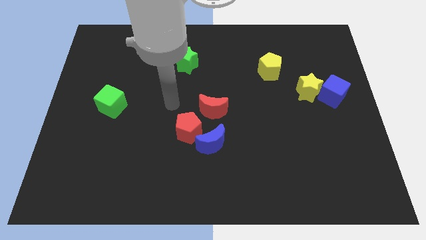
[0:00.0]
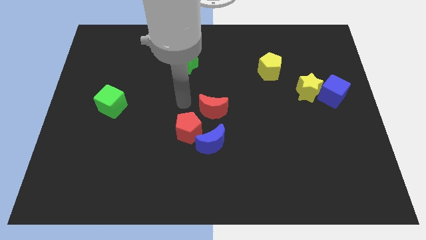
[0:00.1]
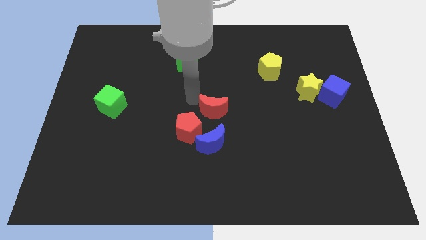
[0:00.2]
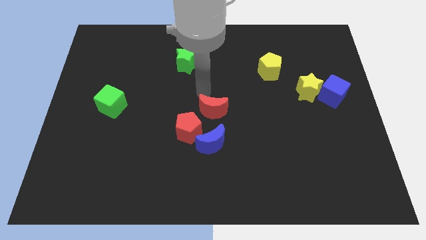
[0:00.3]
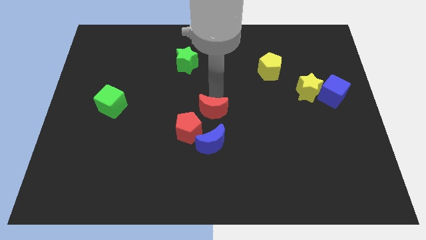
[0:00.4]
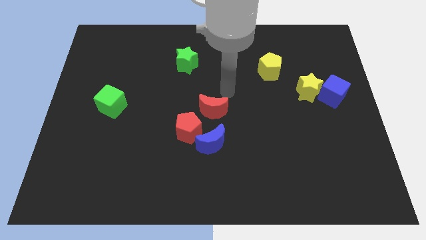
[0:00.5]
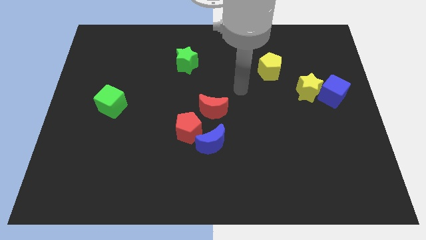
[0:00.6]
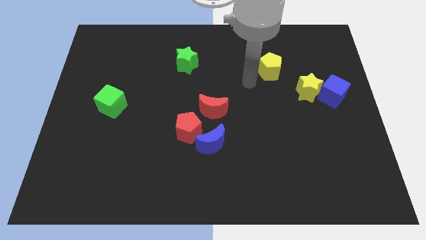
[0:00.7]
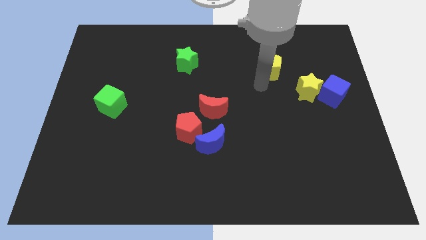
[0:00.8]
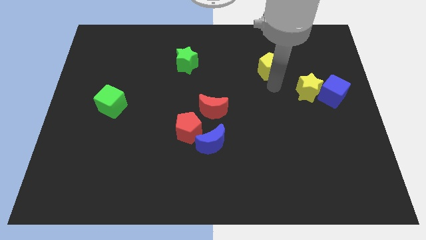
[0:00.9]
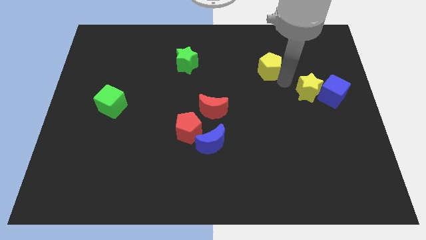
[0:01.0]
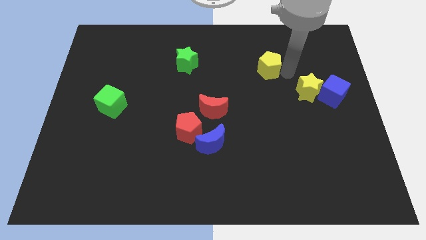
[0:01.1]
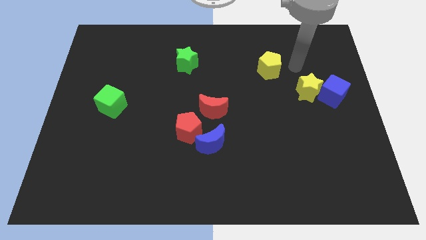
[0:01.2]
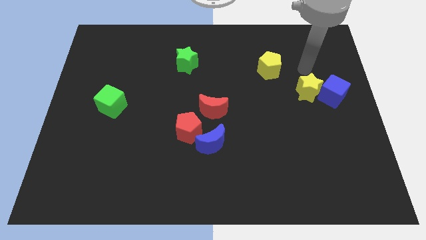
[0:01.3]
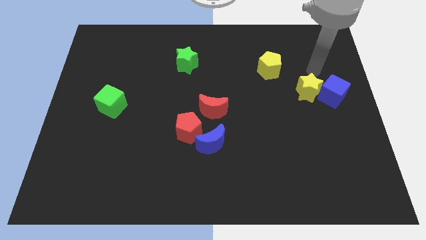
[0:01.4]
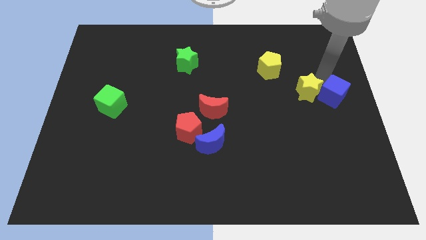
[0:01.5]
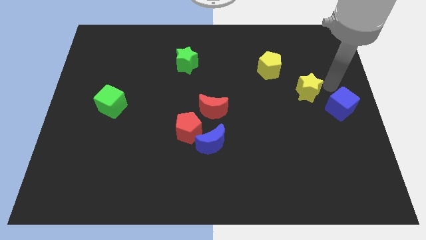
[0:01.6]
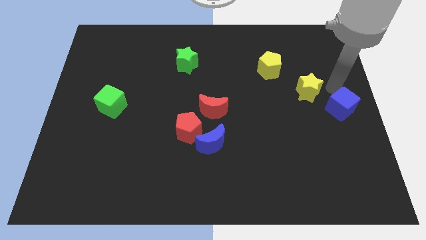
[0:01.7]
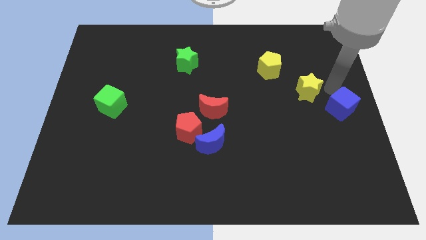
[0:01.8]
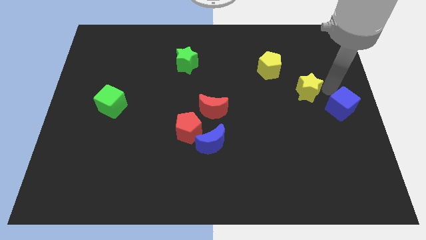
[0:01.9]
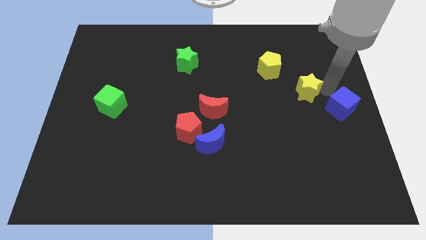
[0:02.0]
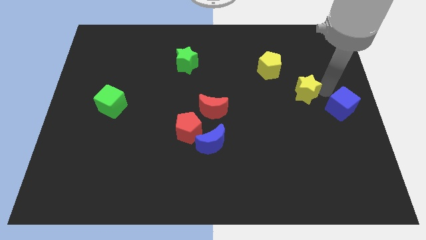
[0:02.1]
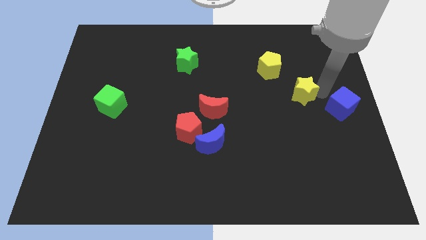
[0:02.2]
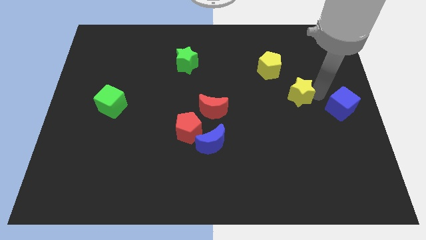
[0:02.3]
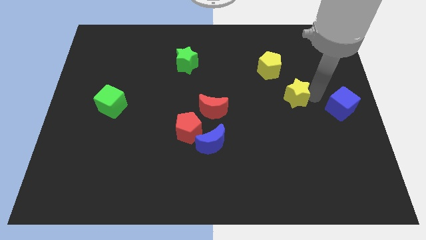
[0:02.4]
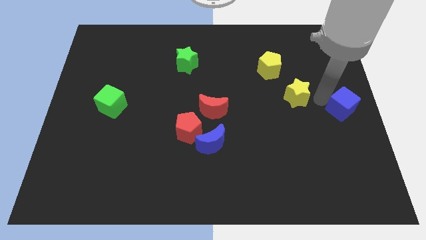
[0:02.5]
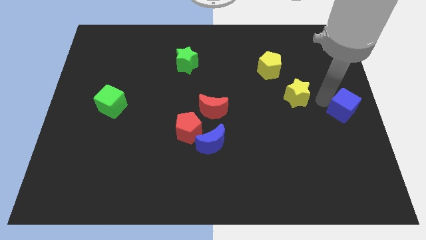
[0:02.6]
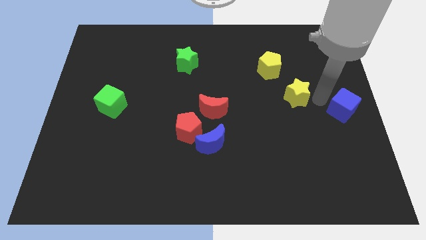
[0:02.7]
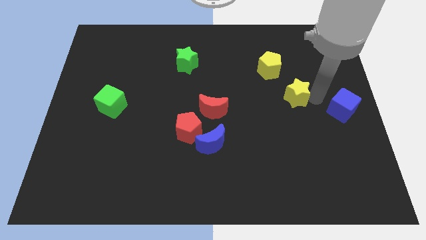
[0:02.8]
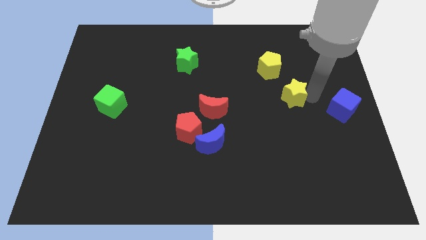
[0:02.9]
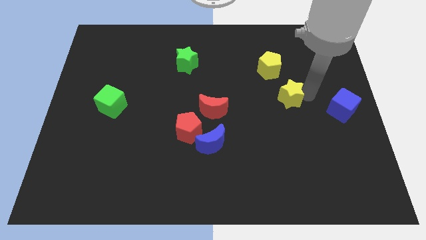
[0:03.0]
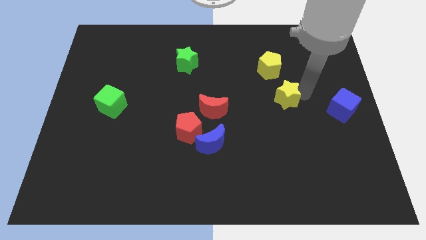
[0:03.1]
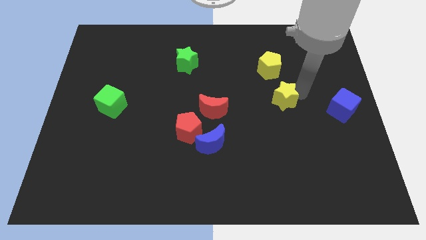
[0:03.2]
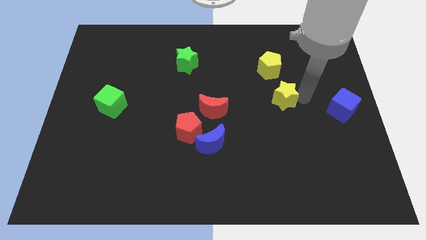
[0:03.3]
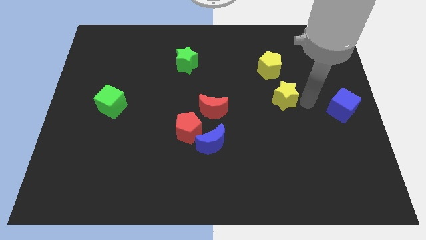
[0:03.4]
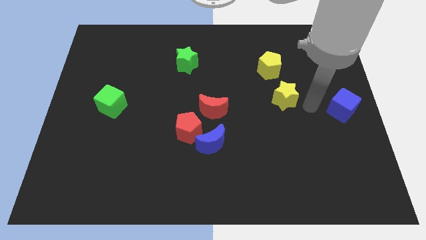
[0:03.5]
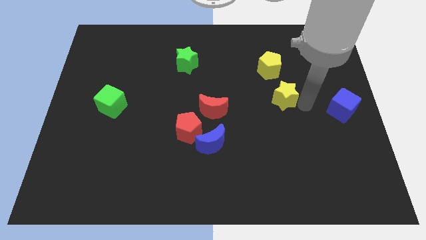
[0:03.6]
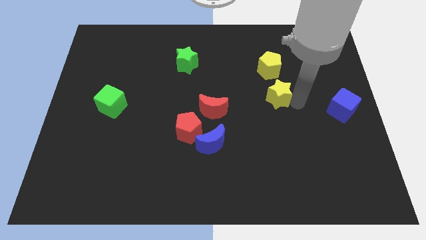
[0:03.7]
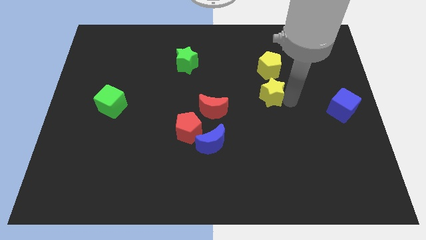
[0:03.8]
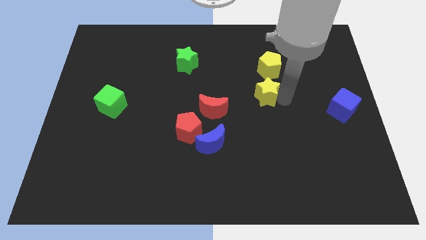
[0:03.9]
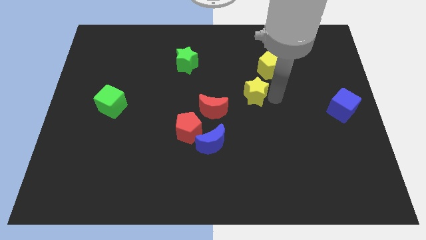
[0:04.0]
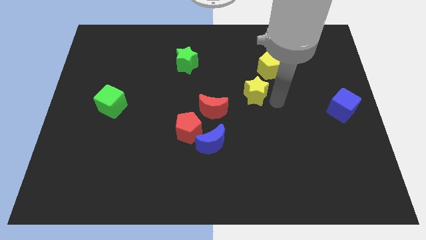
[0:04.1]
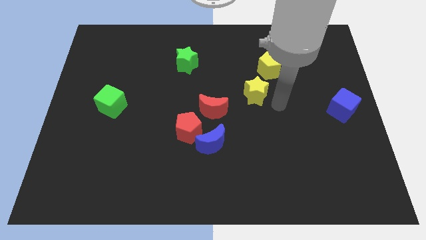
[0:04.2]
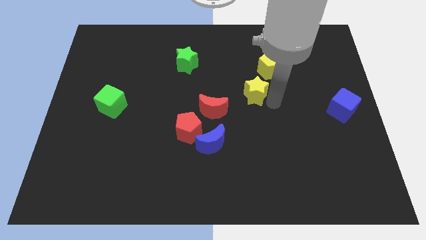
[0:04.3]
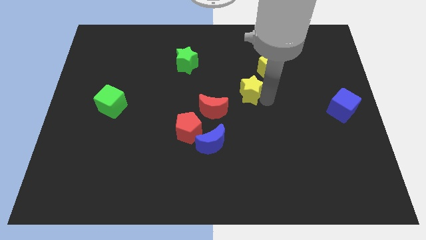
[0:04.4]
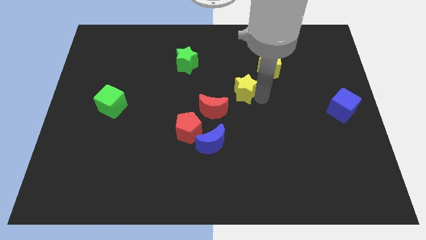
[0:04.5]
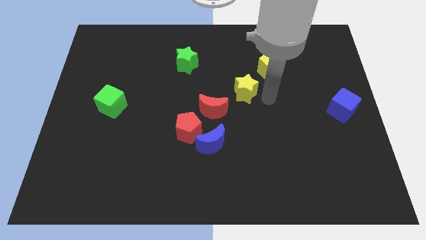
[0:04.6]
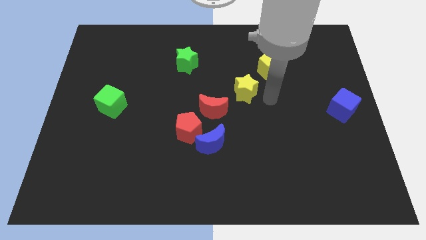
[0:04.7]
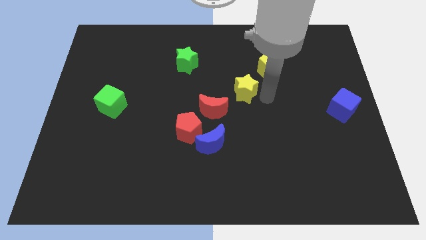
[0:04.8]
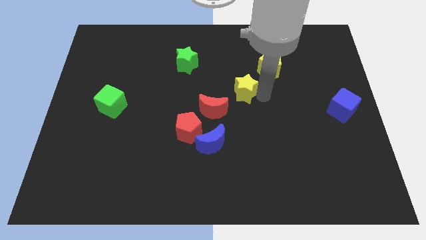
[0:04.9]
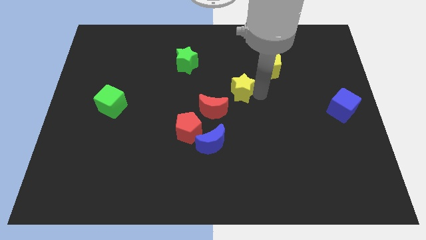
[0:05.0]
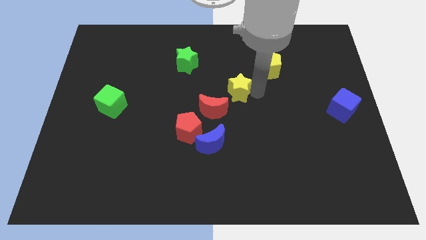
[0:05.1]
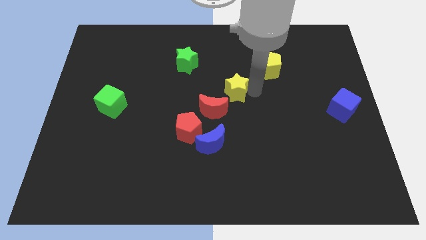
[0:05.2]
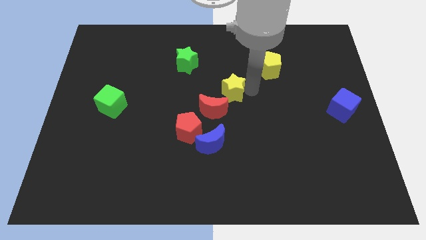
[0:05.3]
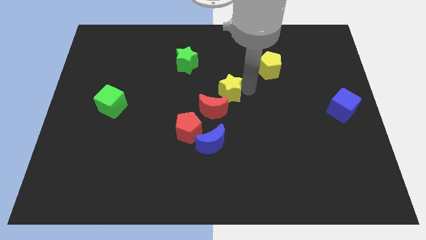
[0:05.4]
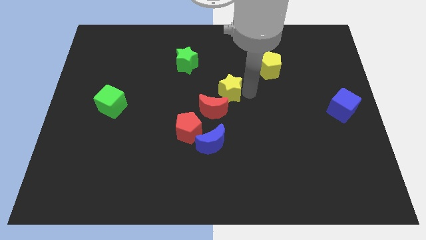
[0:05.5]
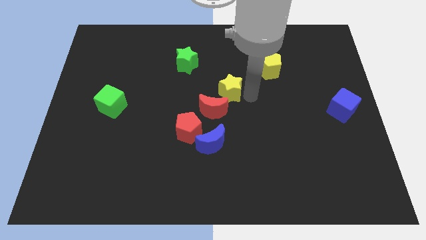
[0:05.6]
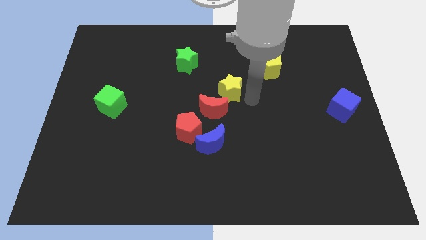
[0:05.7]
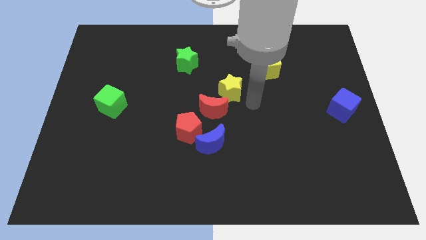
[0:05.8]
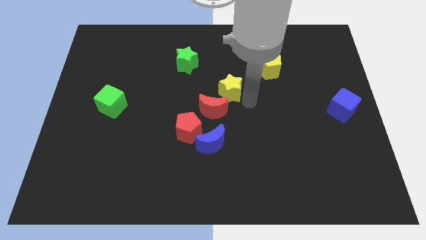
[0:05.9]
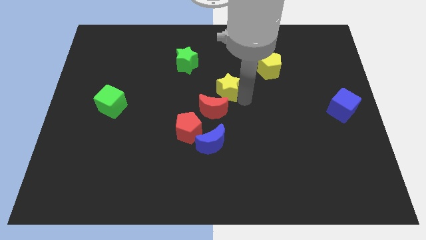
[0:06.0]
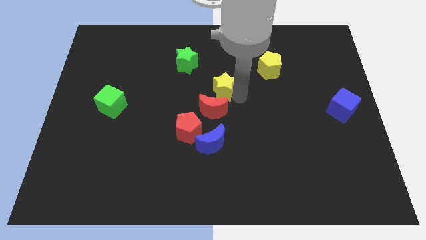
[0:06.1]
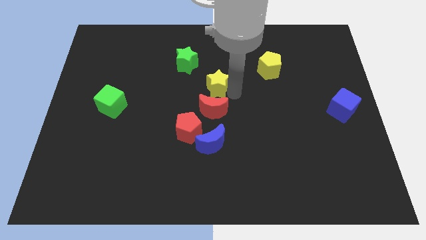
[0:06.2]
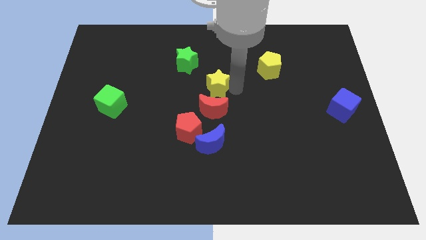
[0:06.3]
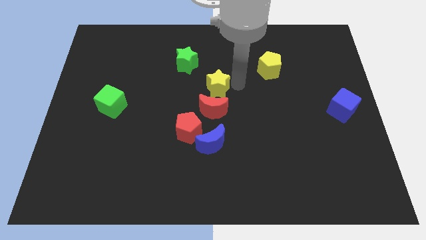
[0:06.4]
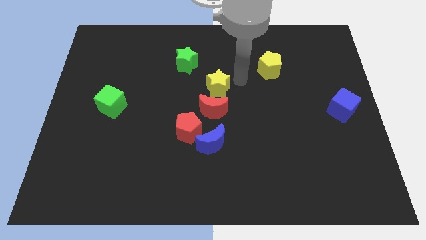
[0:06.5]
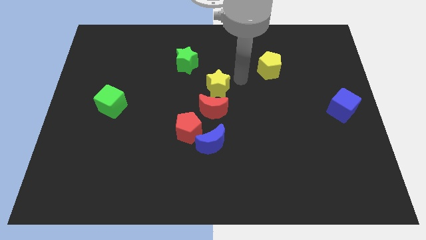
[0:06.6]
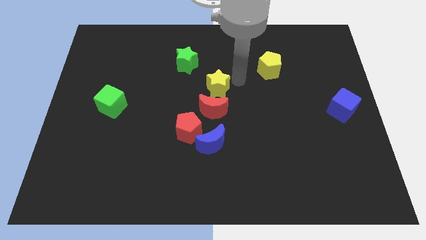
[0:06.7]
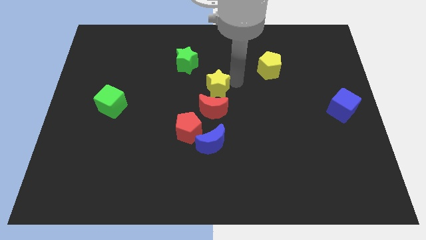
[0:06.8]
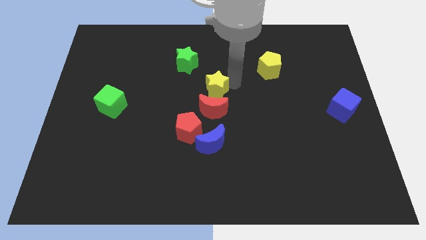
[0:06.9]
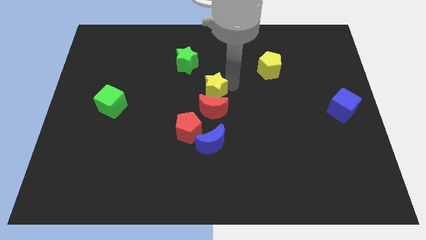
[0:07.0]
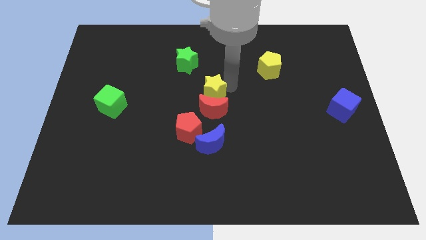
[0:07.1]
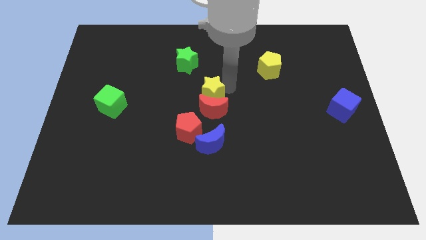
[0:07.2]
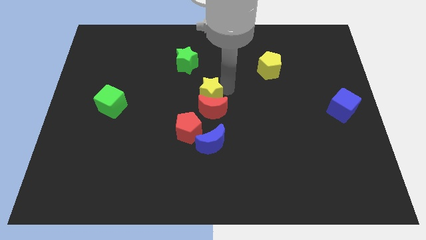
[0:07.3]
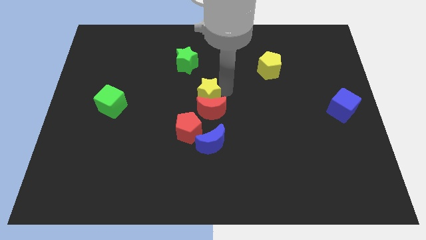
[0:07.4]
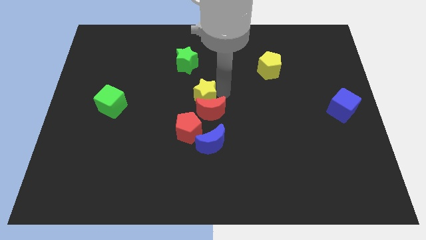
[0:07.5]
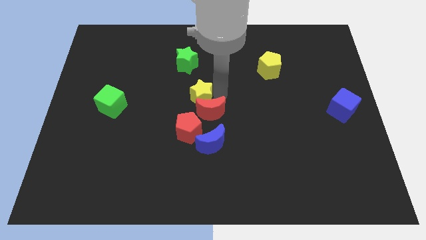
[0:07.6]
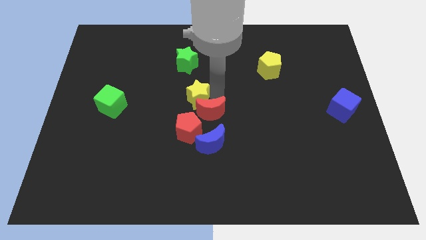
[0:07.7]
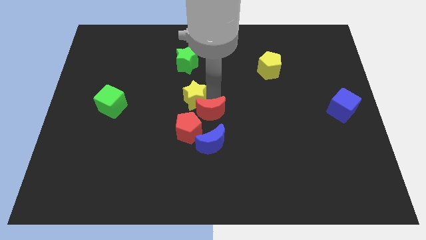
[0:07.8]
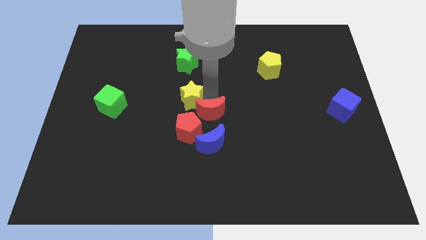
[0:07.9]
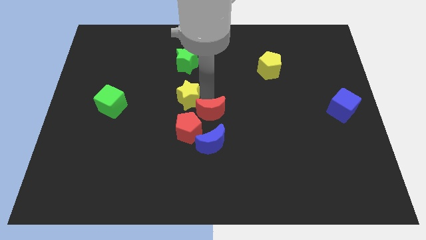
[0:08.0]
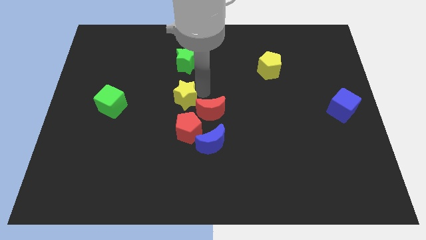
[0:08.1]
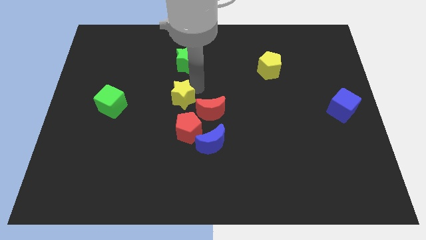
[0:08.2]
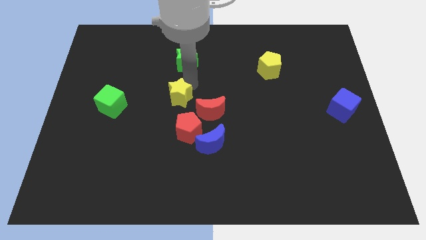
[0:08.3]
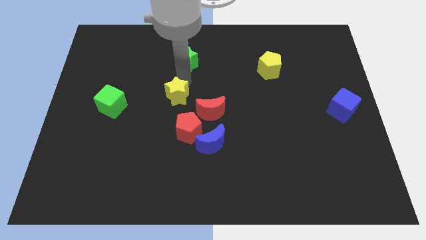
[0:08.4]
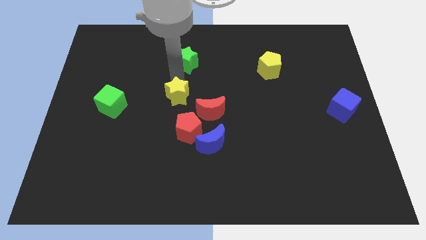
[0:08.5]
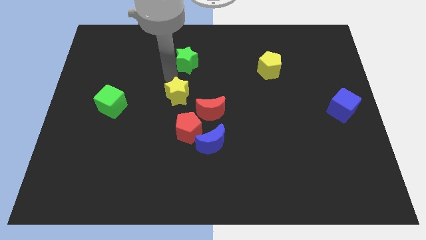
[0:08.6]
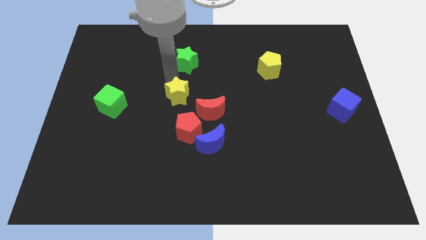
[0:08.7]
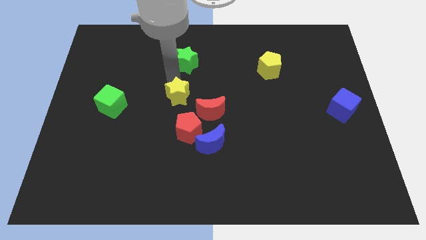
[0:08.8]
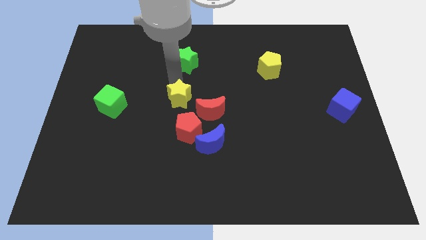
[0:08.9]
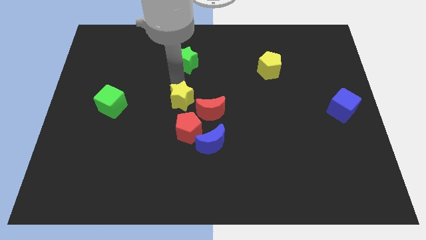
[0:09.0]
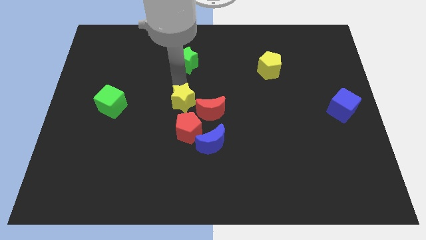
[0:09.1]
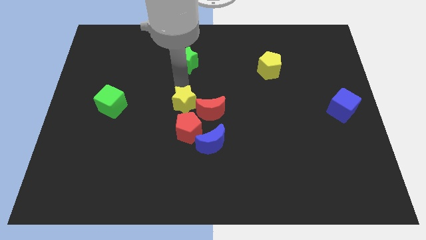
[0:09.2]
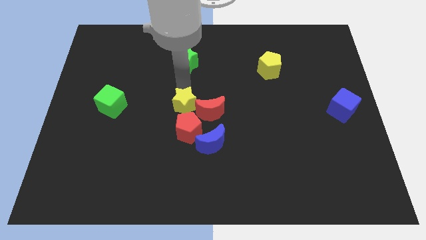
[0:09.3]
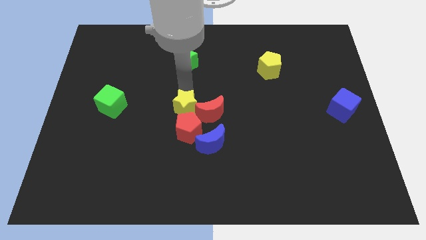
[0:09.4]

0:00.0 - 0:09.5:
slide the yellow star to the top left side of the blue moon
